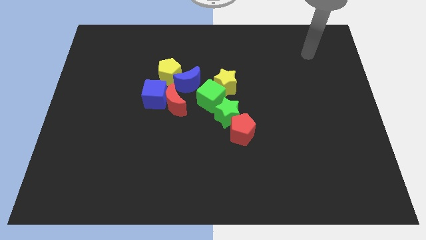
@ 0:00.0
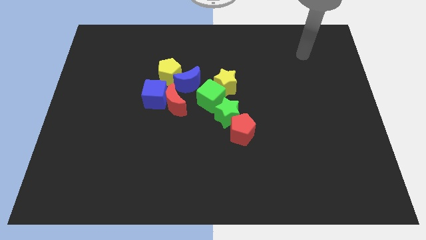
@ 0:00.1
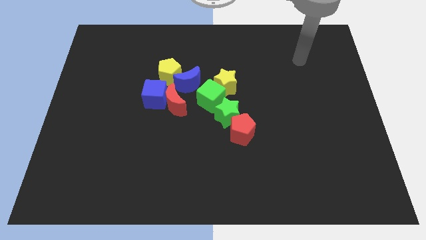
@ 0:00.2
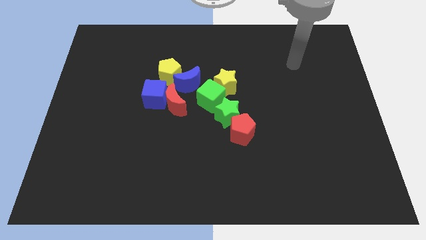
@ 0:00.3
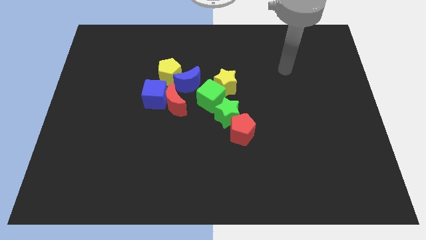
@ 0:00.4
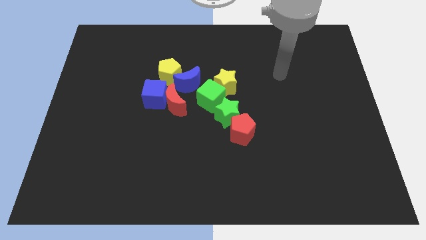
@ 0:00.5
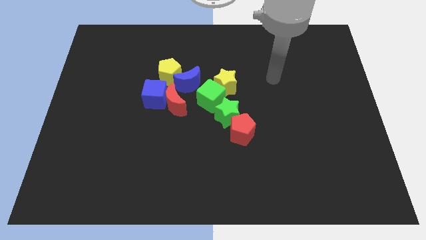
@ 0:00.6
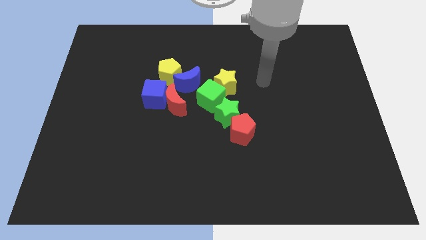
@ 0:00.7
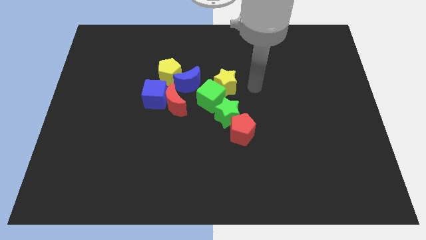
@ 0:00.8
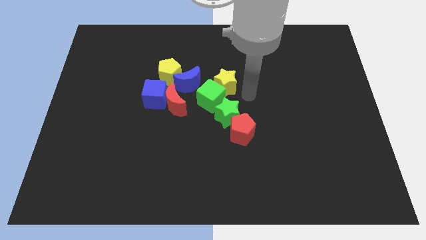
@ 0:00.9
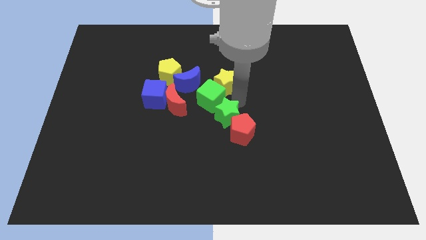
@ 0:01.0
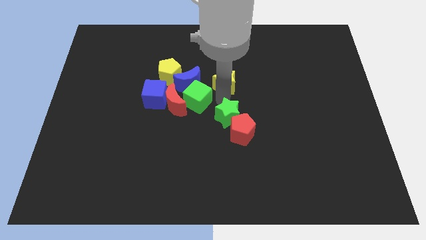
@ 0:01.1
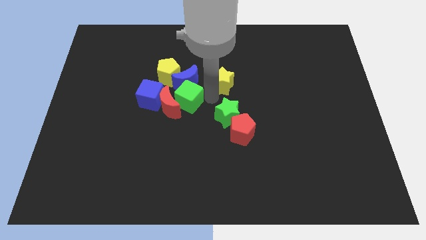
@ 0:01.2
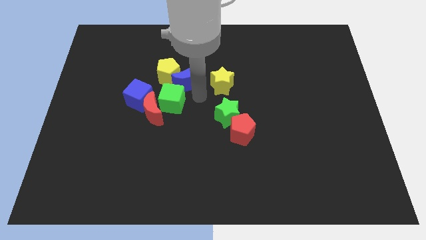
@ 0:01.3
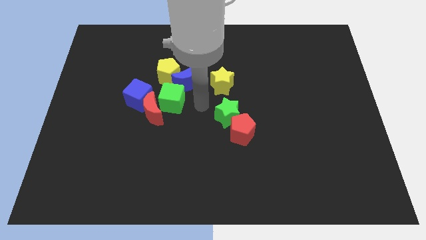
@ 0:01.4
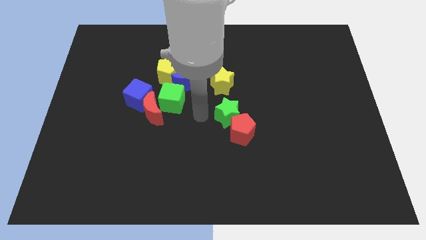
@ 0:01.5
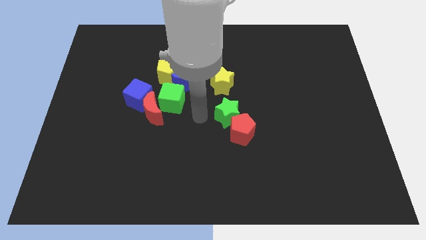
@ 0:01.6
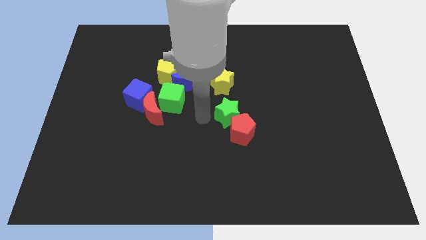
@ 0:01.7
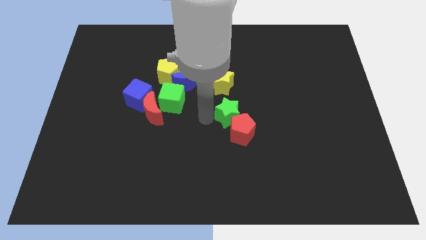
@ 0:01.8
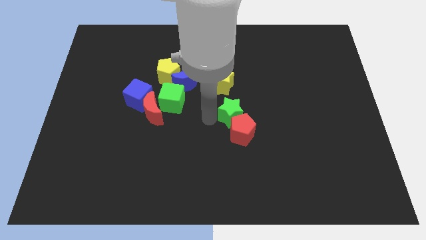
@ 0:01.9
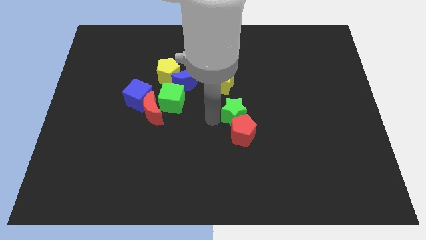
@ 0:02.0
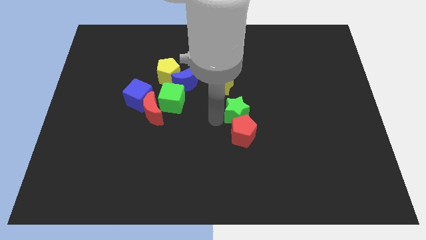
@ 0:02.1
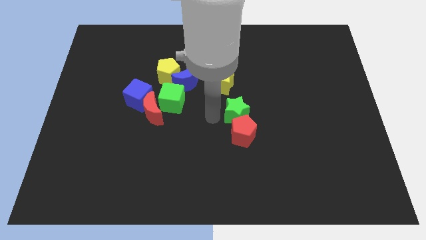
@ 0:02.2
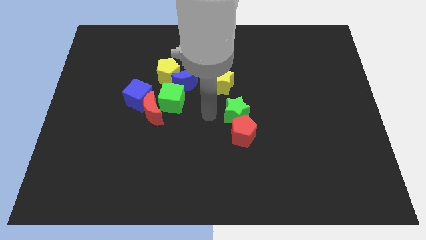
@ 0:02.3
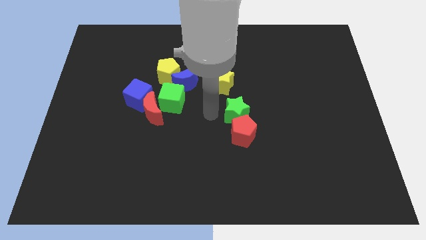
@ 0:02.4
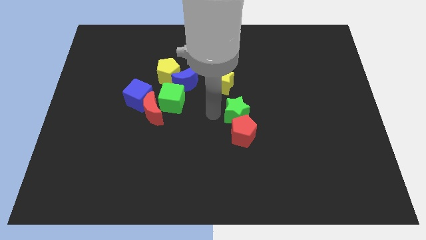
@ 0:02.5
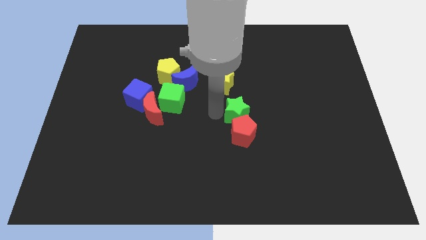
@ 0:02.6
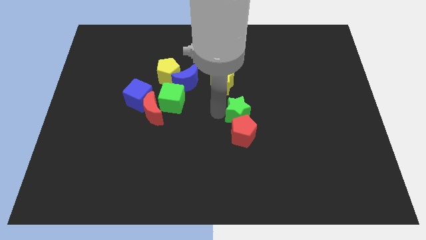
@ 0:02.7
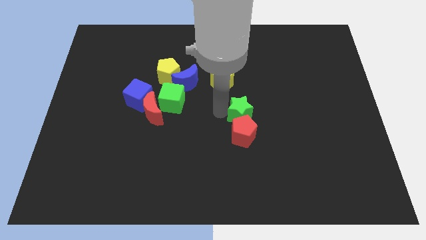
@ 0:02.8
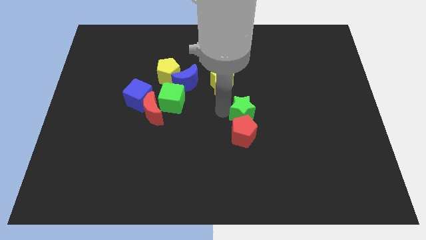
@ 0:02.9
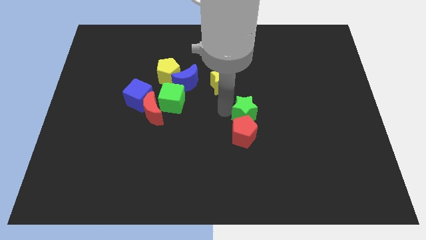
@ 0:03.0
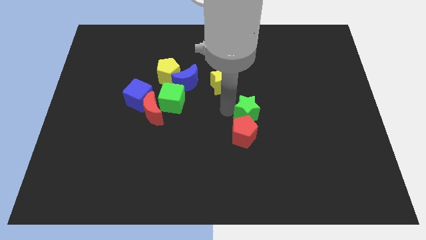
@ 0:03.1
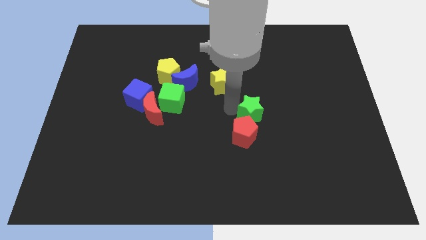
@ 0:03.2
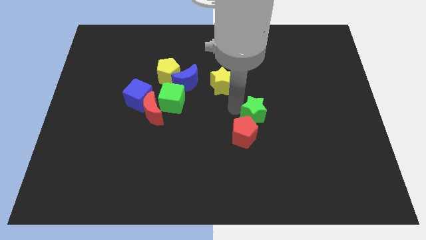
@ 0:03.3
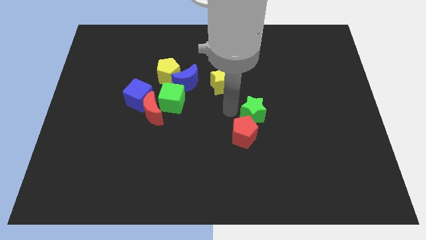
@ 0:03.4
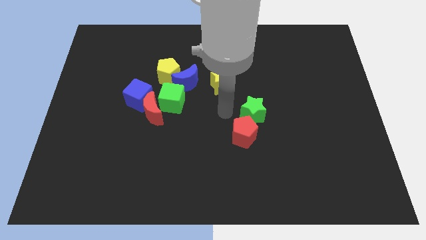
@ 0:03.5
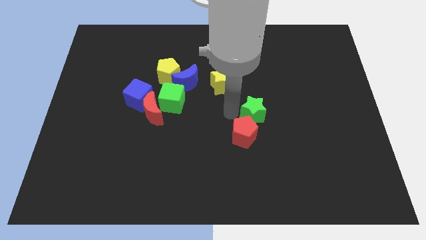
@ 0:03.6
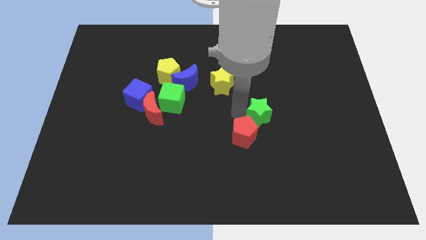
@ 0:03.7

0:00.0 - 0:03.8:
slightly push the green star to the right

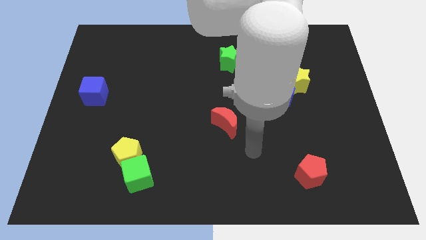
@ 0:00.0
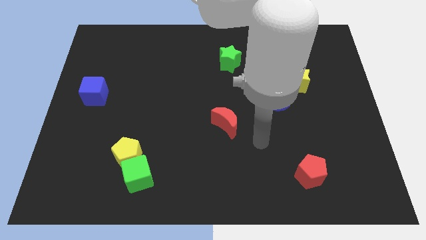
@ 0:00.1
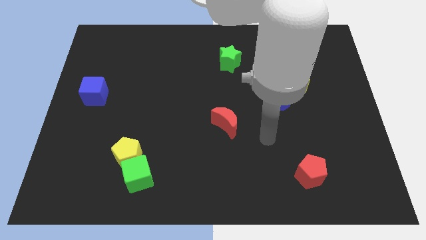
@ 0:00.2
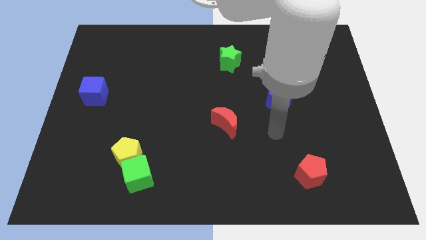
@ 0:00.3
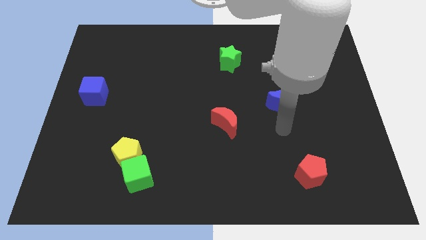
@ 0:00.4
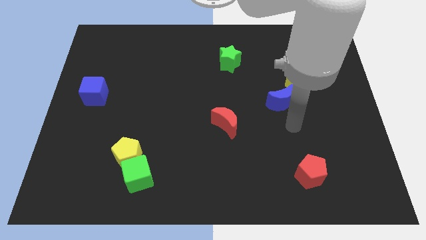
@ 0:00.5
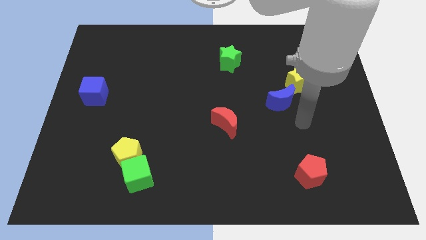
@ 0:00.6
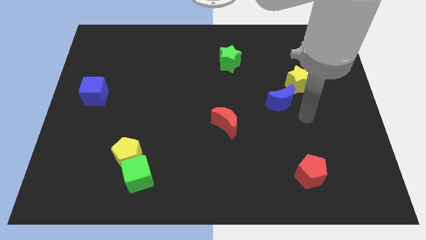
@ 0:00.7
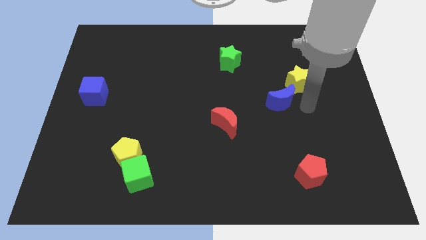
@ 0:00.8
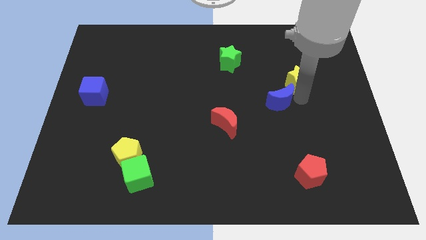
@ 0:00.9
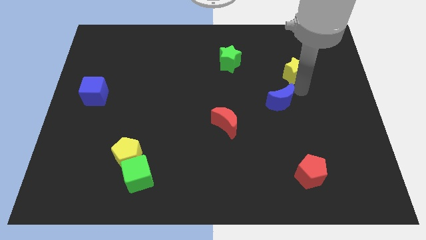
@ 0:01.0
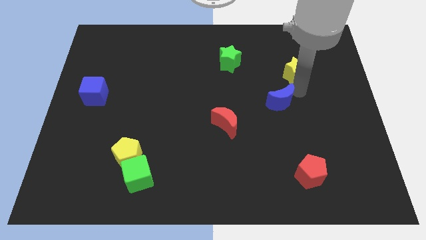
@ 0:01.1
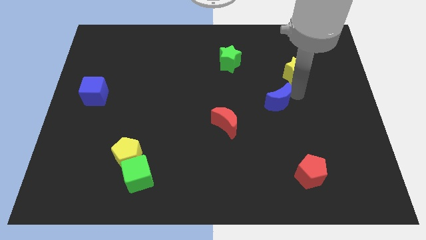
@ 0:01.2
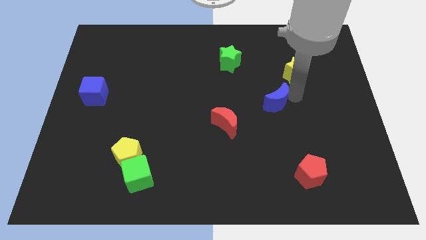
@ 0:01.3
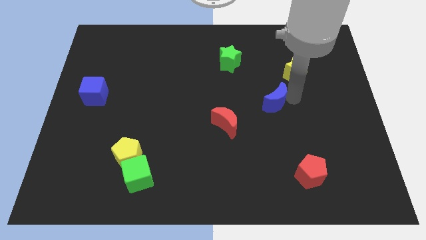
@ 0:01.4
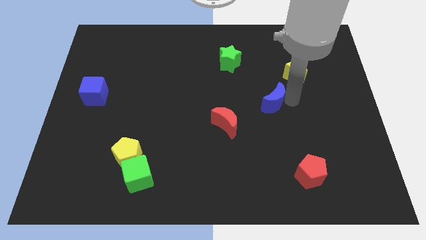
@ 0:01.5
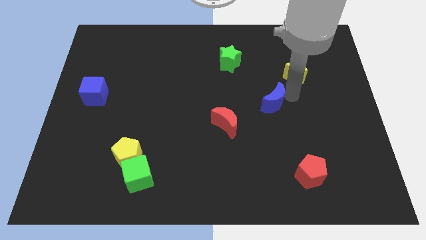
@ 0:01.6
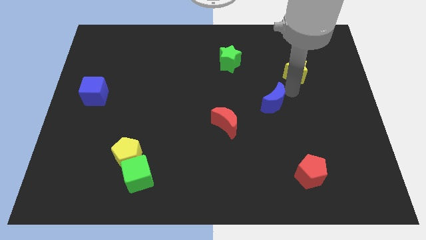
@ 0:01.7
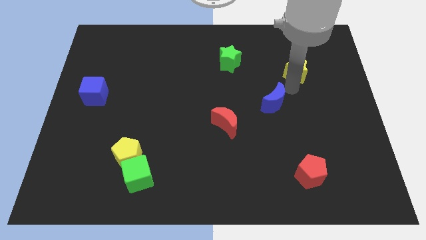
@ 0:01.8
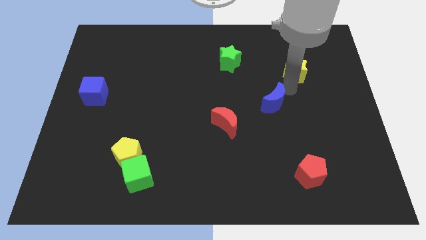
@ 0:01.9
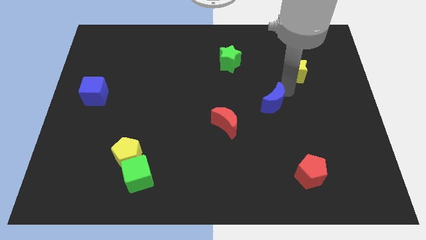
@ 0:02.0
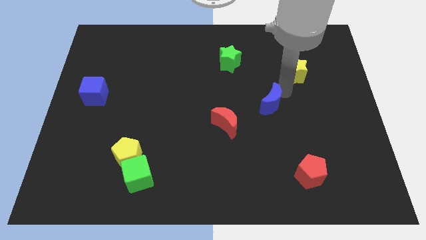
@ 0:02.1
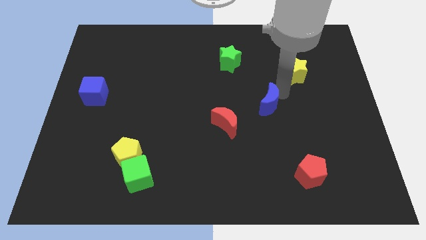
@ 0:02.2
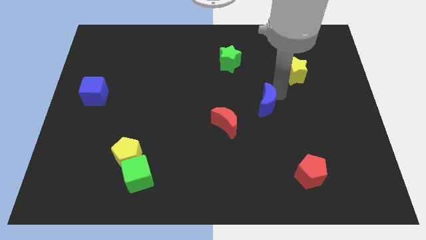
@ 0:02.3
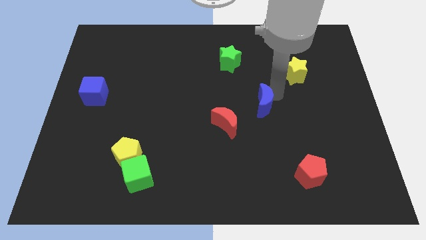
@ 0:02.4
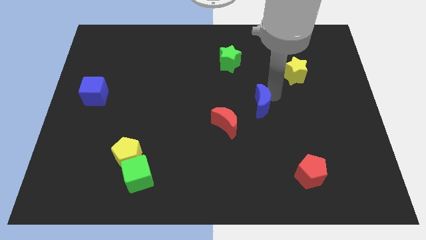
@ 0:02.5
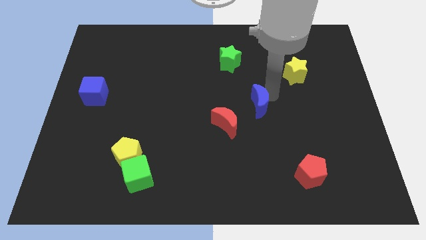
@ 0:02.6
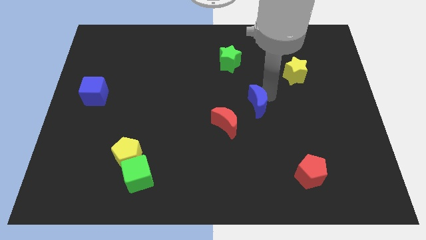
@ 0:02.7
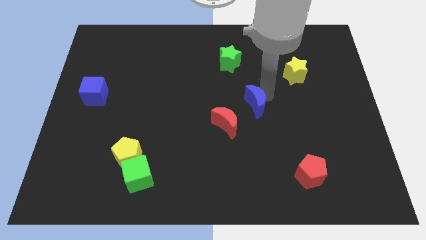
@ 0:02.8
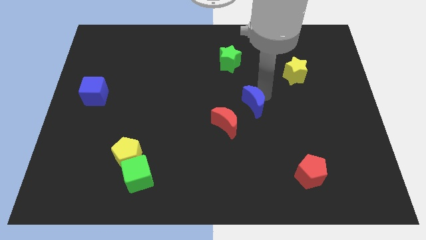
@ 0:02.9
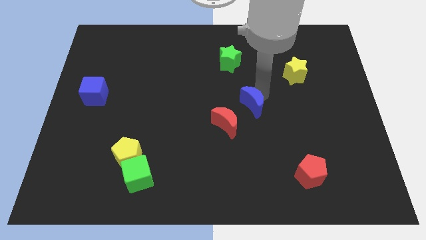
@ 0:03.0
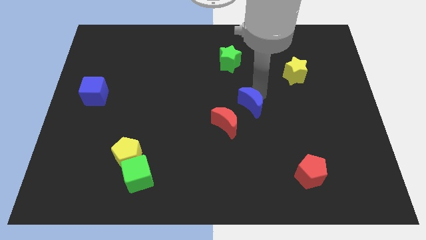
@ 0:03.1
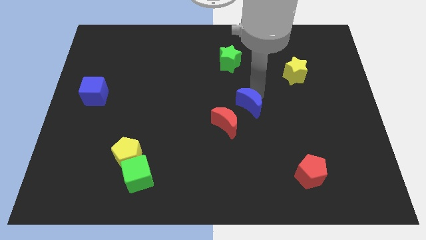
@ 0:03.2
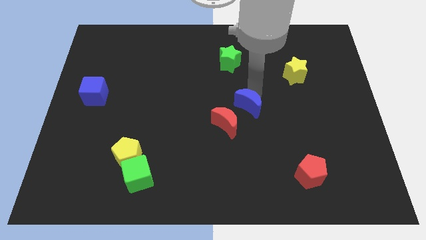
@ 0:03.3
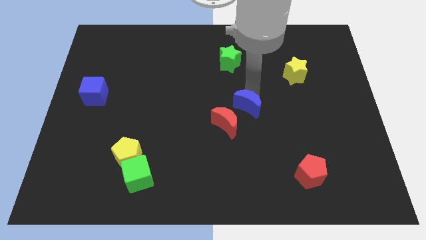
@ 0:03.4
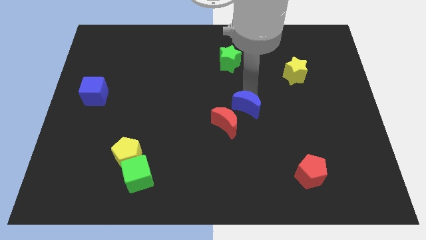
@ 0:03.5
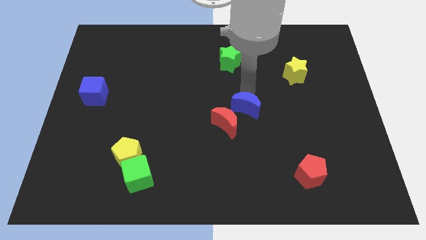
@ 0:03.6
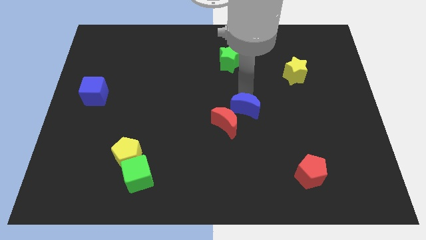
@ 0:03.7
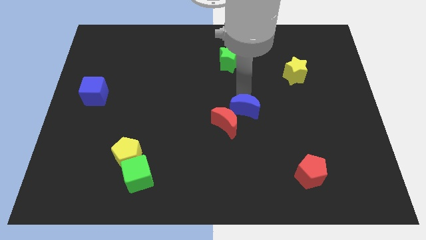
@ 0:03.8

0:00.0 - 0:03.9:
move the blue moon somewhat diagonally down and left
